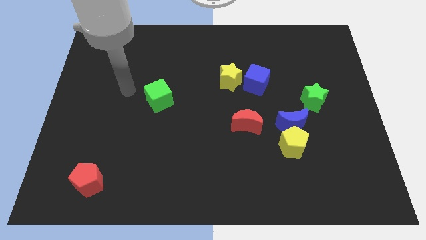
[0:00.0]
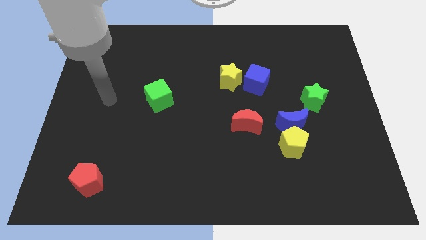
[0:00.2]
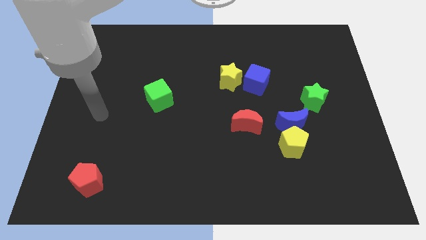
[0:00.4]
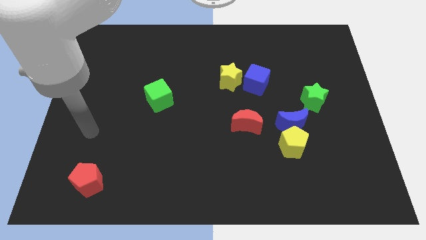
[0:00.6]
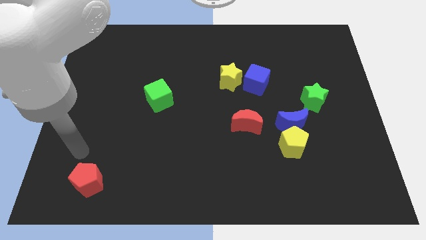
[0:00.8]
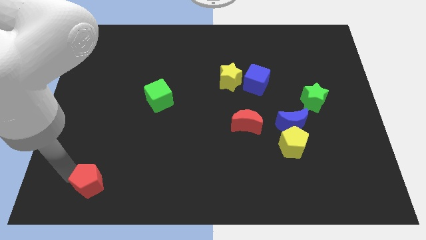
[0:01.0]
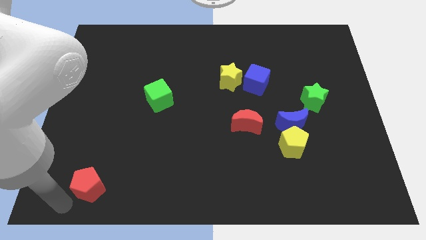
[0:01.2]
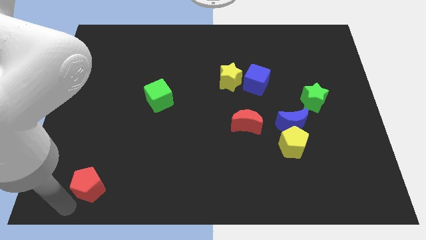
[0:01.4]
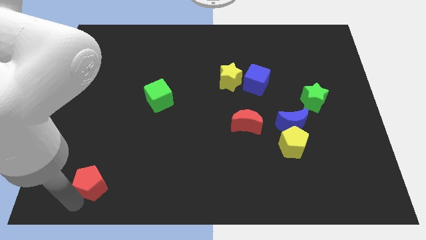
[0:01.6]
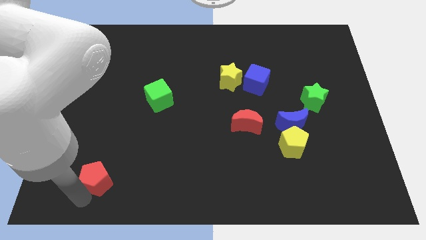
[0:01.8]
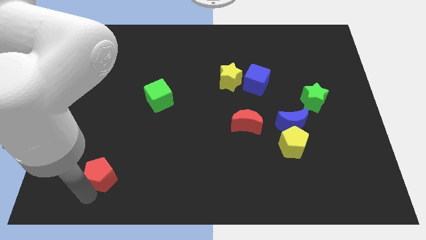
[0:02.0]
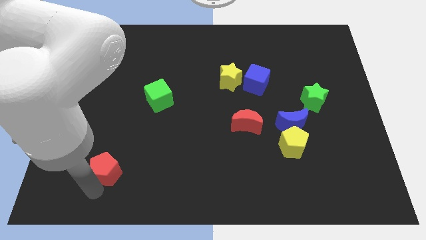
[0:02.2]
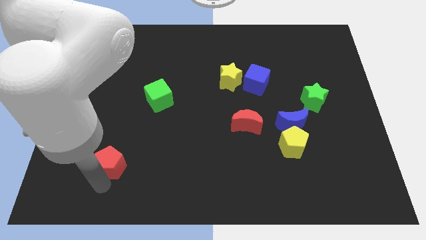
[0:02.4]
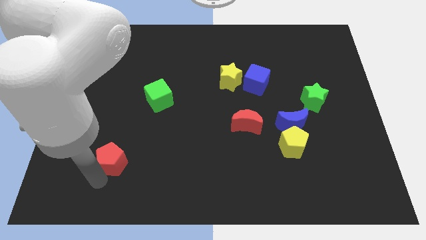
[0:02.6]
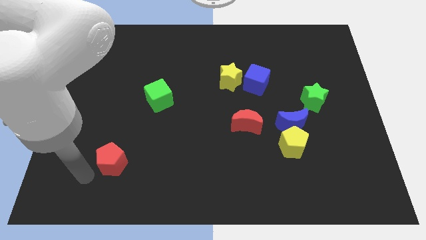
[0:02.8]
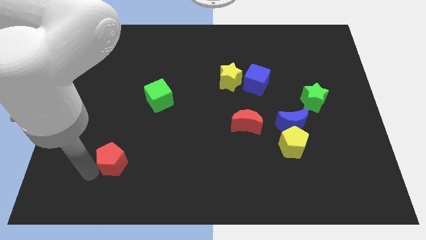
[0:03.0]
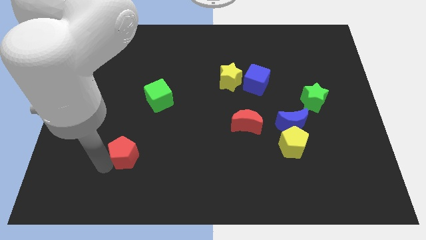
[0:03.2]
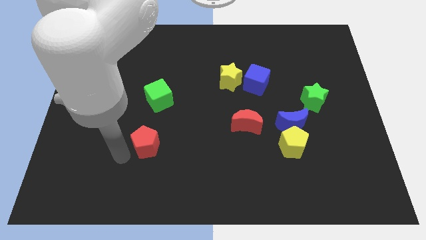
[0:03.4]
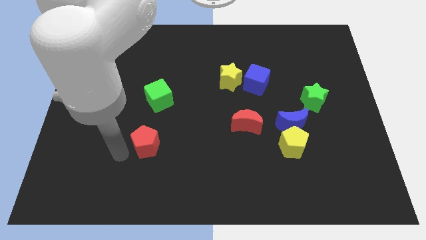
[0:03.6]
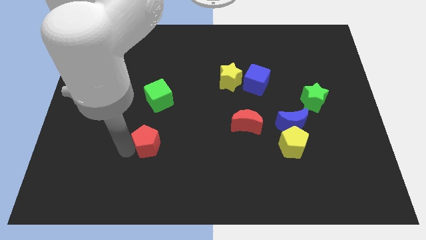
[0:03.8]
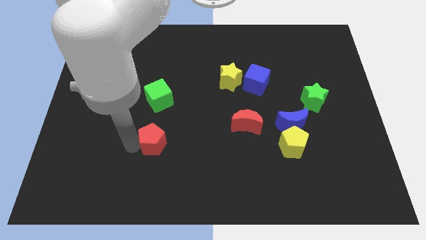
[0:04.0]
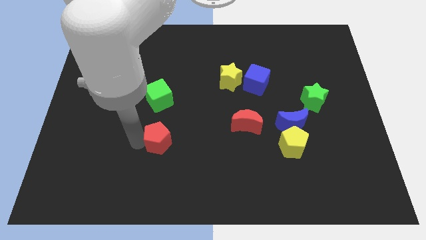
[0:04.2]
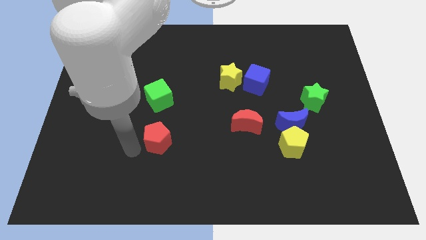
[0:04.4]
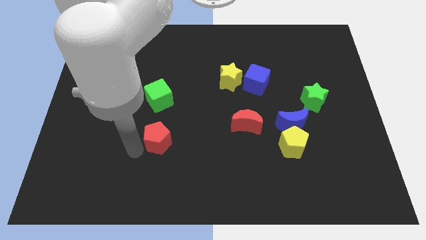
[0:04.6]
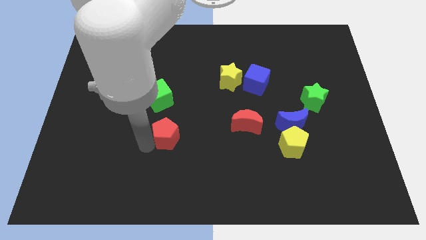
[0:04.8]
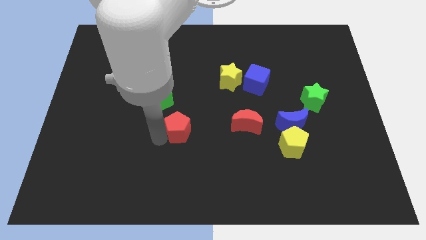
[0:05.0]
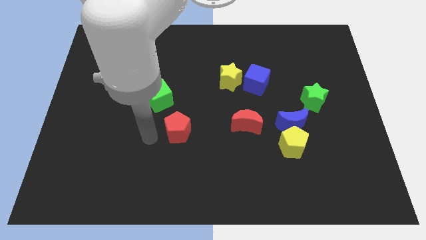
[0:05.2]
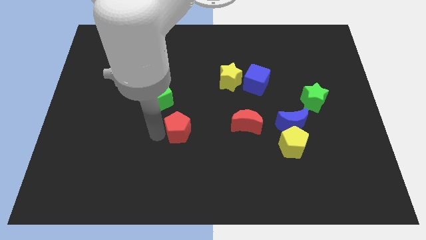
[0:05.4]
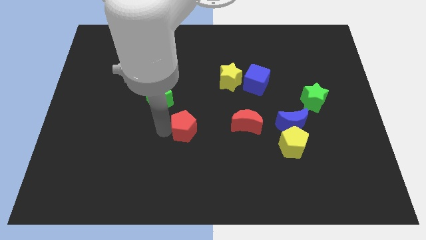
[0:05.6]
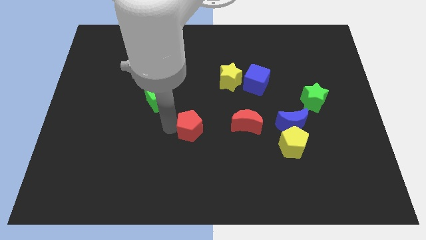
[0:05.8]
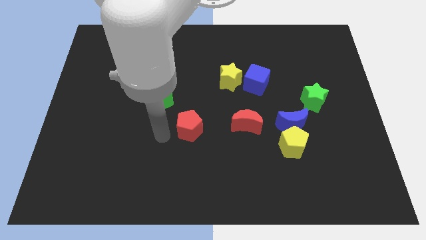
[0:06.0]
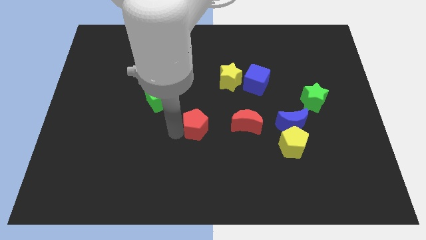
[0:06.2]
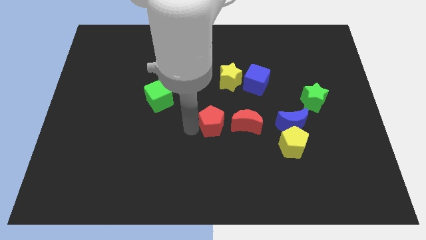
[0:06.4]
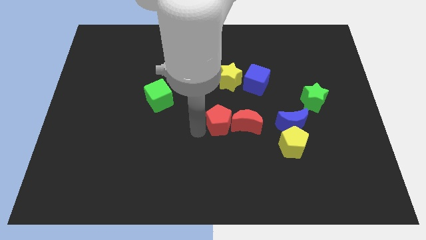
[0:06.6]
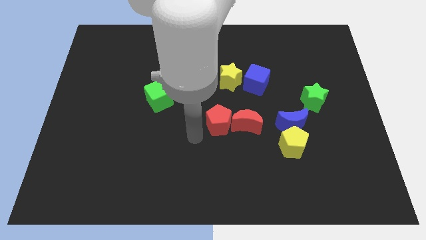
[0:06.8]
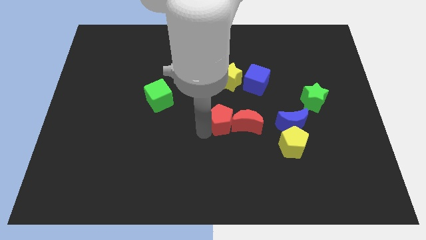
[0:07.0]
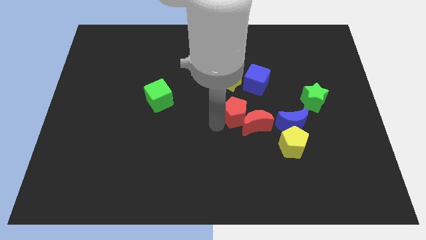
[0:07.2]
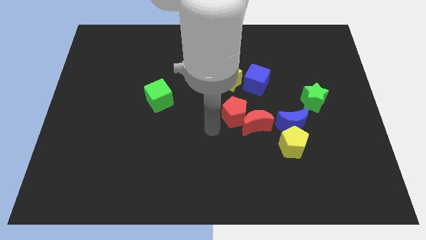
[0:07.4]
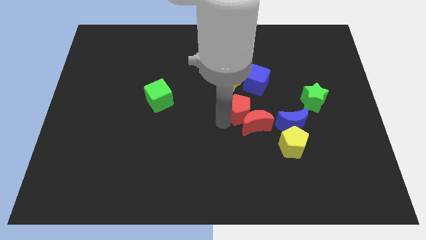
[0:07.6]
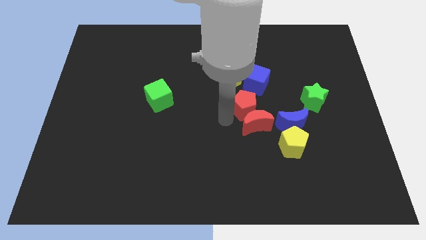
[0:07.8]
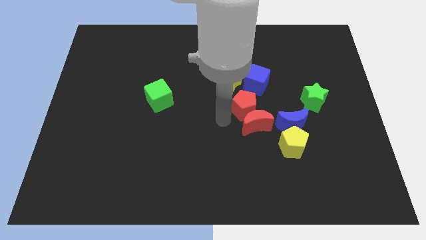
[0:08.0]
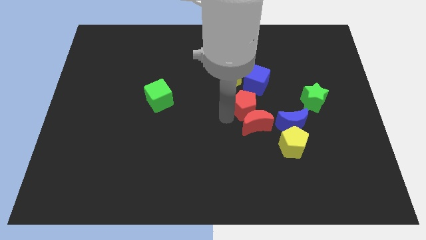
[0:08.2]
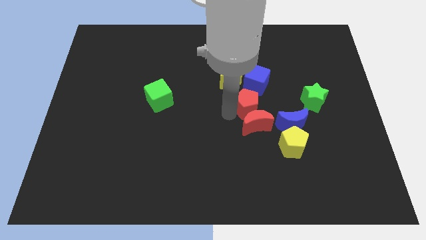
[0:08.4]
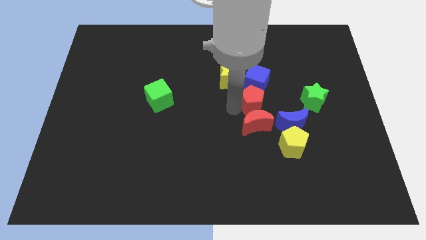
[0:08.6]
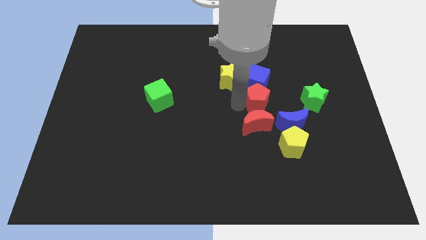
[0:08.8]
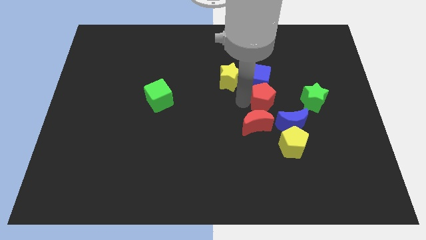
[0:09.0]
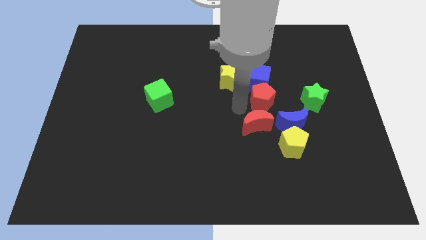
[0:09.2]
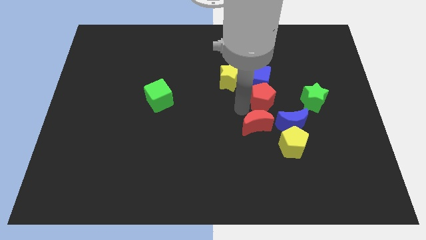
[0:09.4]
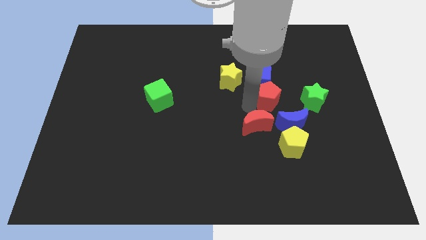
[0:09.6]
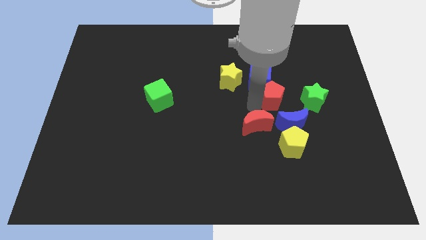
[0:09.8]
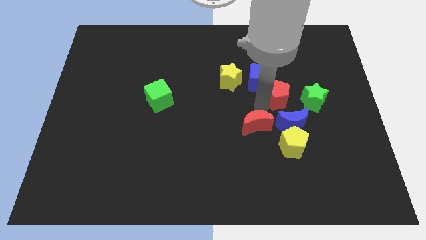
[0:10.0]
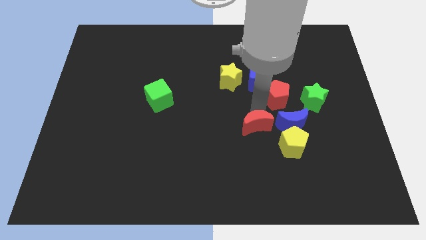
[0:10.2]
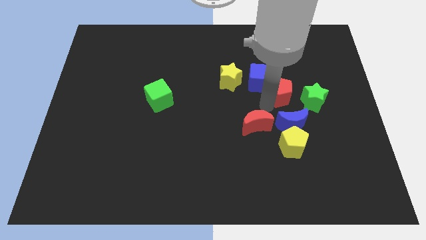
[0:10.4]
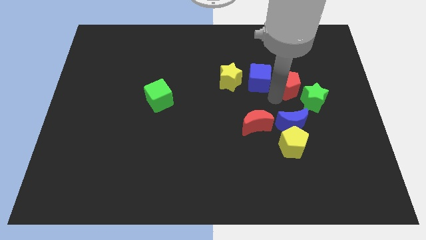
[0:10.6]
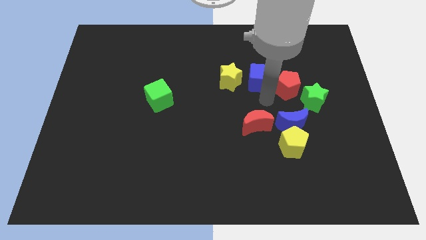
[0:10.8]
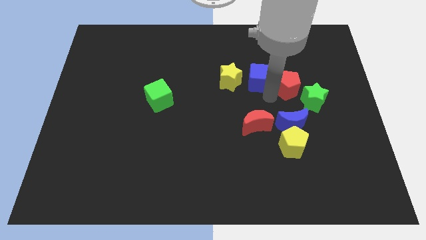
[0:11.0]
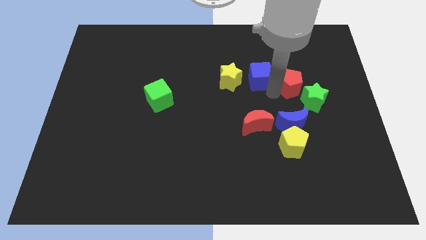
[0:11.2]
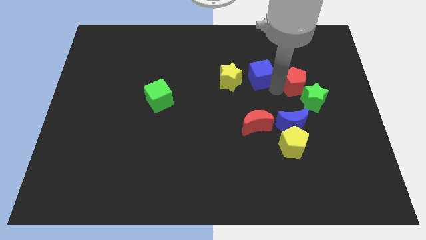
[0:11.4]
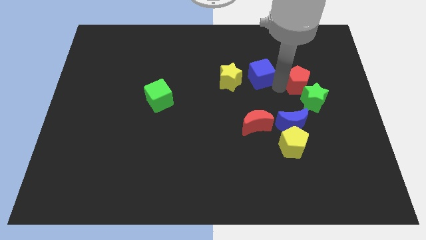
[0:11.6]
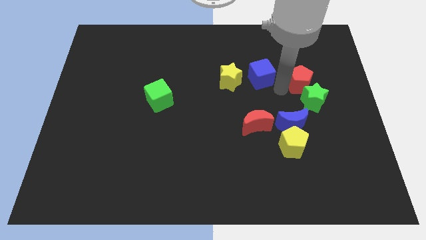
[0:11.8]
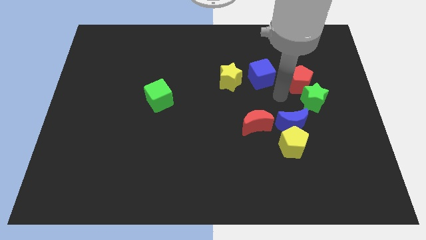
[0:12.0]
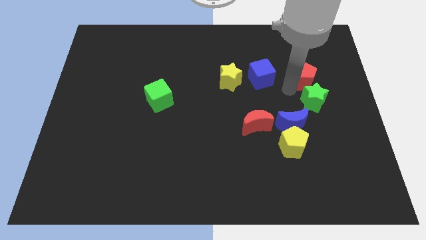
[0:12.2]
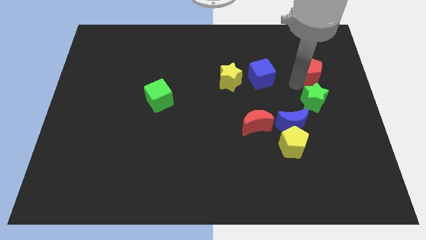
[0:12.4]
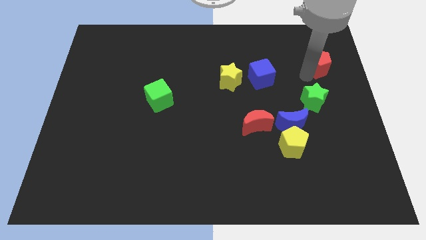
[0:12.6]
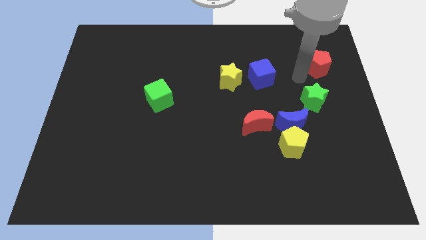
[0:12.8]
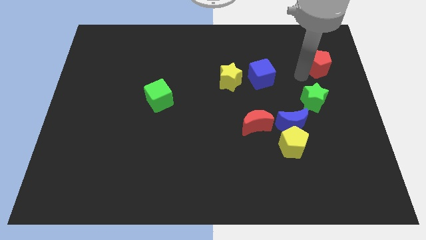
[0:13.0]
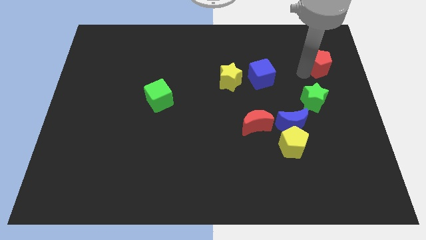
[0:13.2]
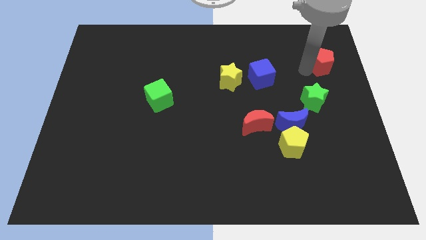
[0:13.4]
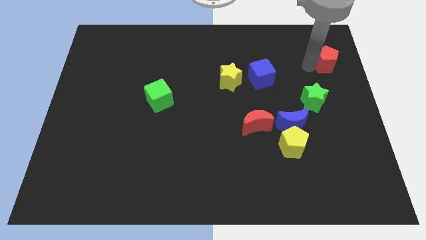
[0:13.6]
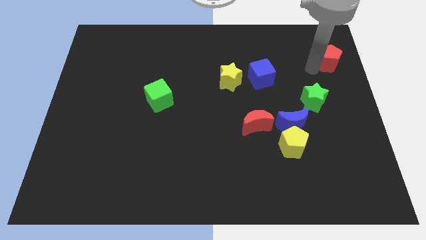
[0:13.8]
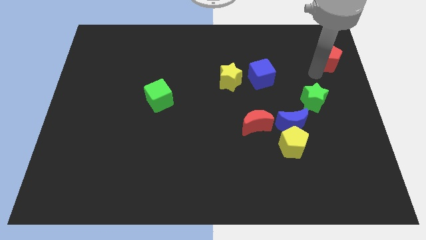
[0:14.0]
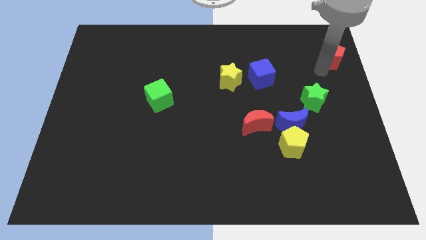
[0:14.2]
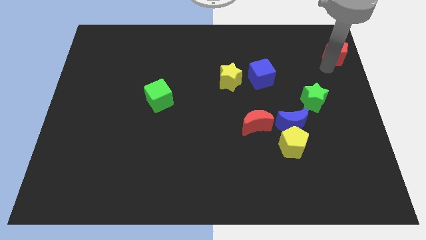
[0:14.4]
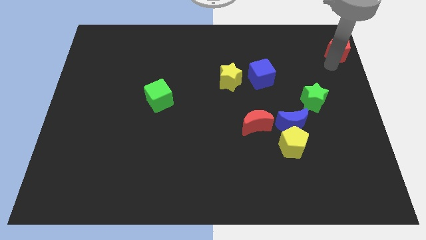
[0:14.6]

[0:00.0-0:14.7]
push the red pentagon to the top right
